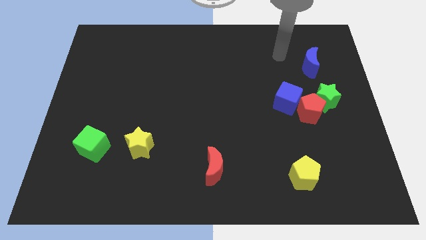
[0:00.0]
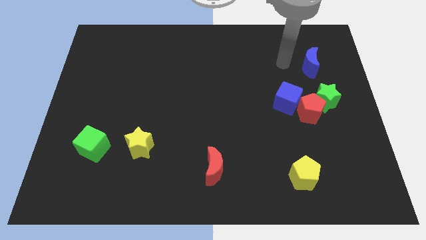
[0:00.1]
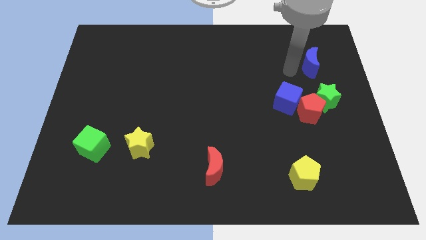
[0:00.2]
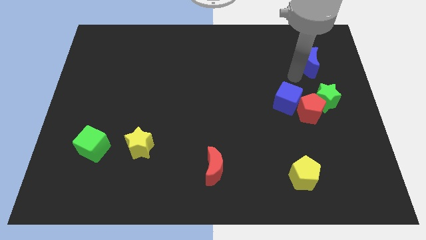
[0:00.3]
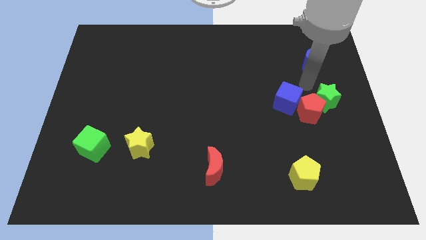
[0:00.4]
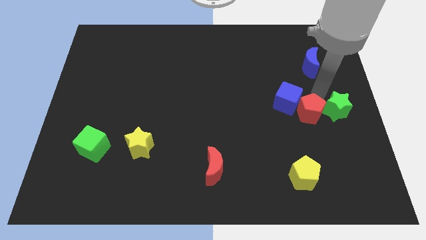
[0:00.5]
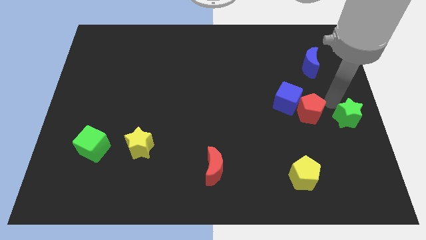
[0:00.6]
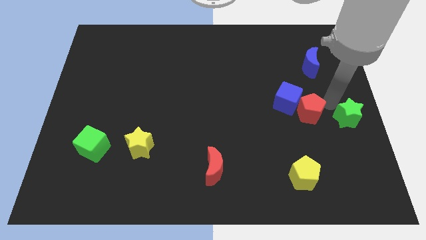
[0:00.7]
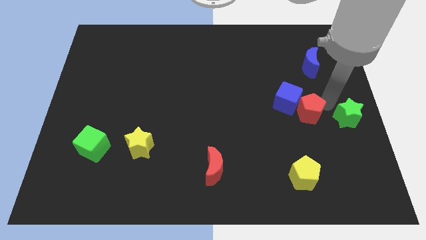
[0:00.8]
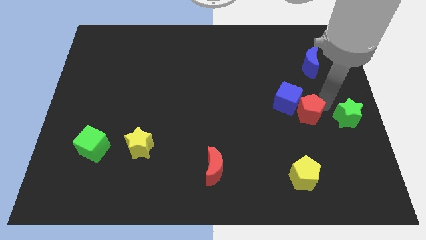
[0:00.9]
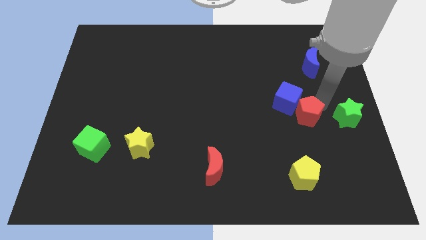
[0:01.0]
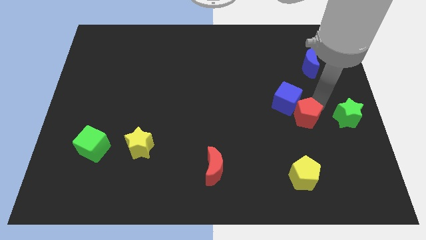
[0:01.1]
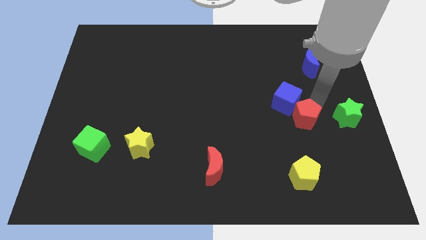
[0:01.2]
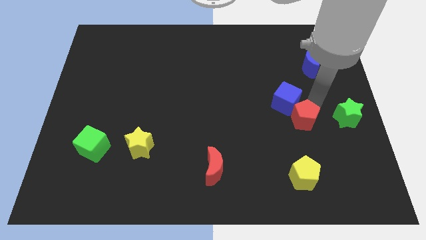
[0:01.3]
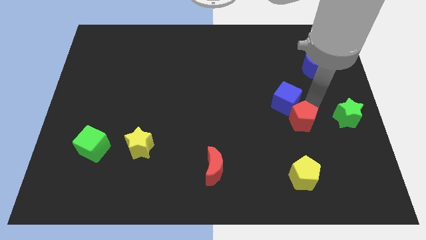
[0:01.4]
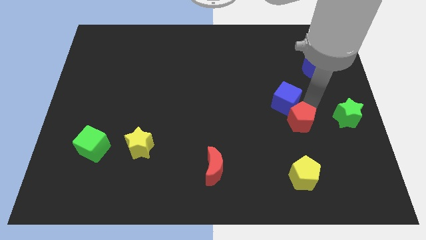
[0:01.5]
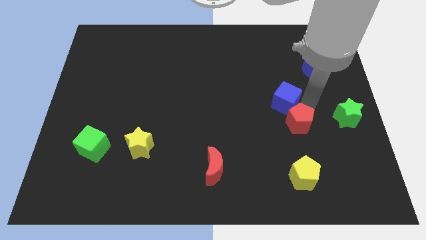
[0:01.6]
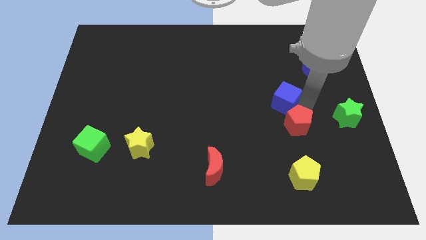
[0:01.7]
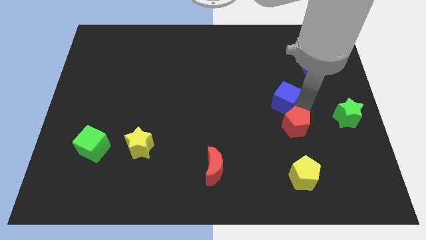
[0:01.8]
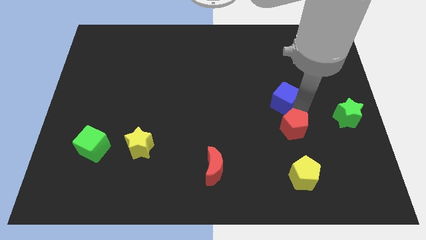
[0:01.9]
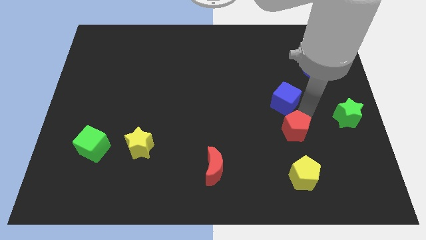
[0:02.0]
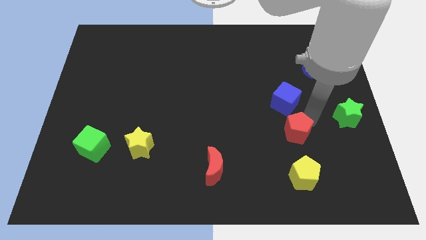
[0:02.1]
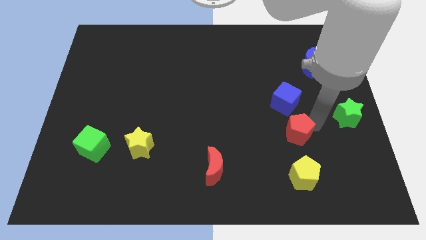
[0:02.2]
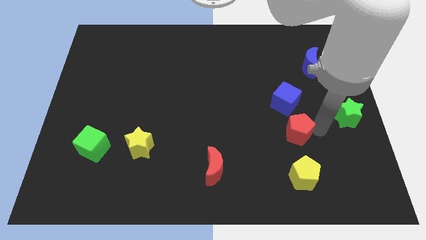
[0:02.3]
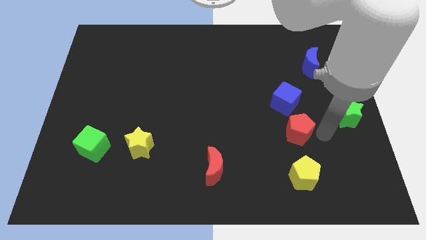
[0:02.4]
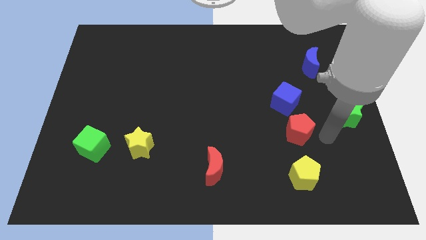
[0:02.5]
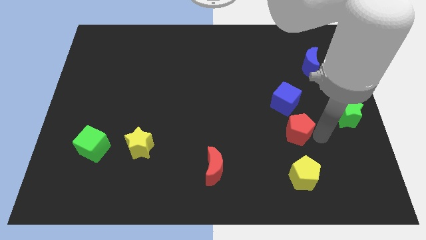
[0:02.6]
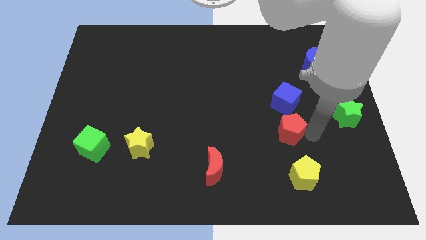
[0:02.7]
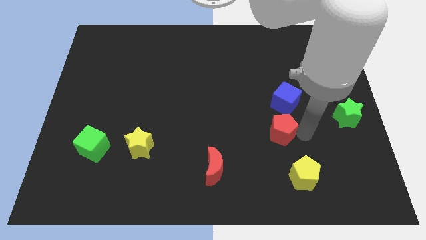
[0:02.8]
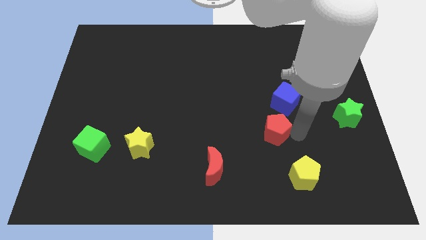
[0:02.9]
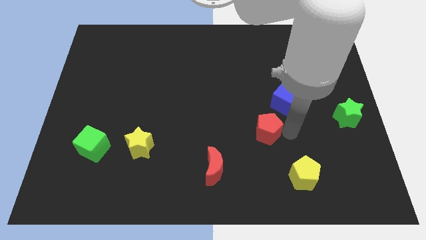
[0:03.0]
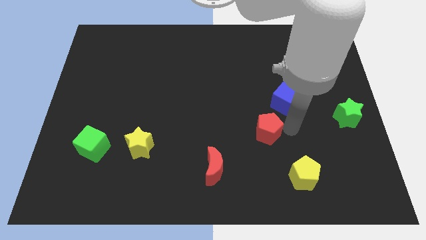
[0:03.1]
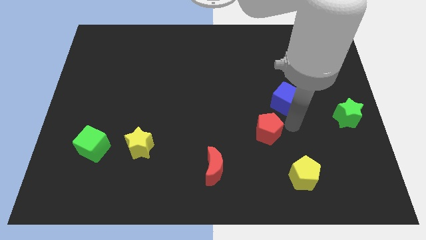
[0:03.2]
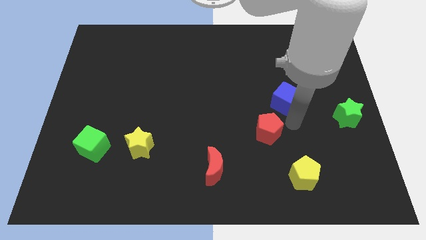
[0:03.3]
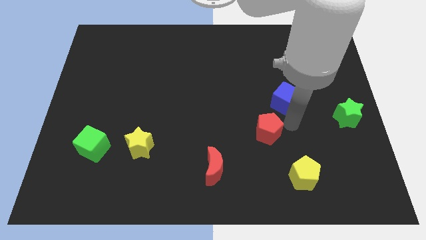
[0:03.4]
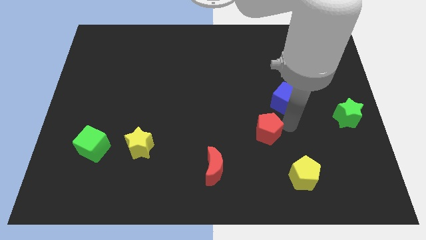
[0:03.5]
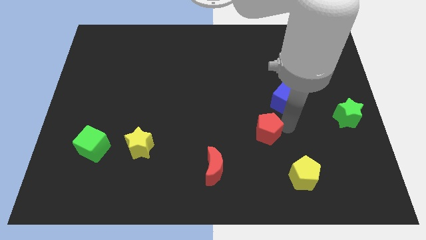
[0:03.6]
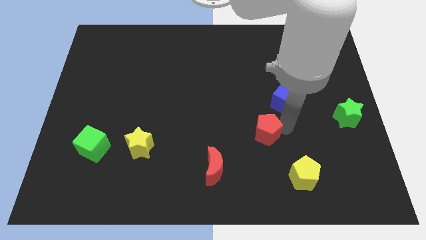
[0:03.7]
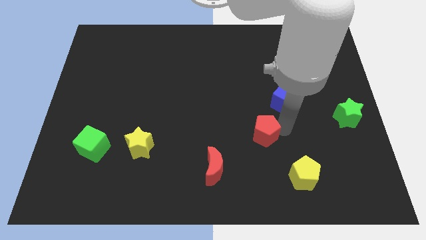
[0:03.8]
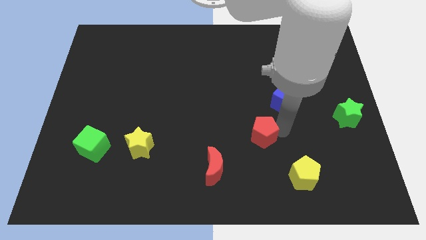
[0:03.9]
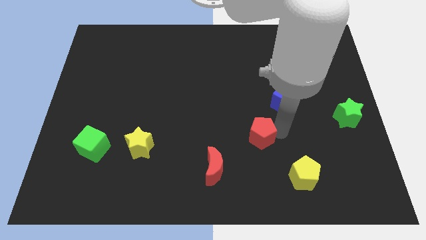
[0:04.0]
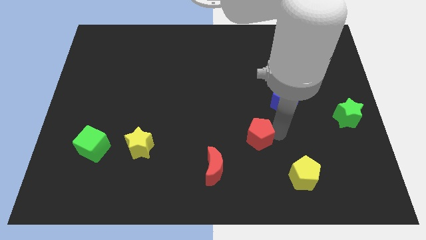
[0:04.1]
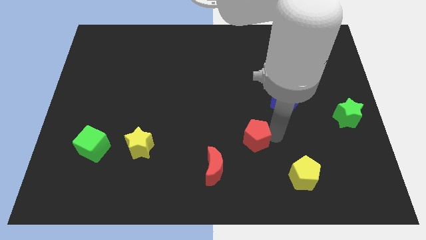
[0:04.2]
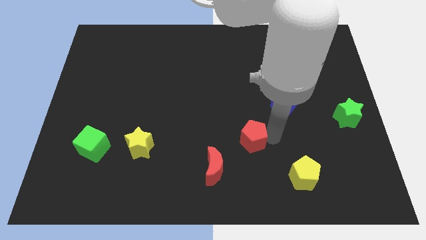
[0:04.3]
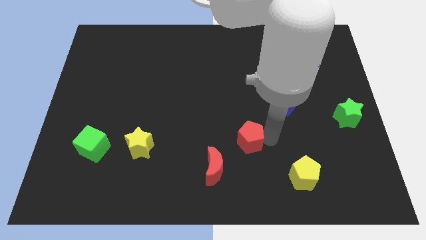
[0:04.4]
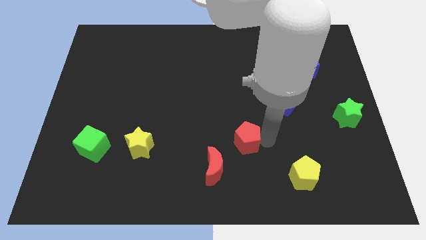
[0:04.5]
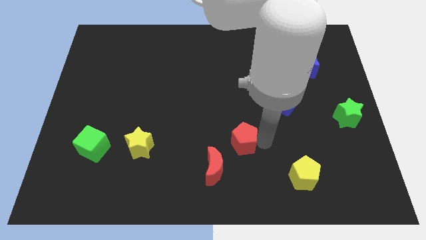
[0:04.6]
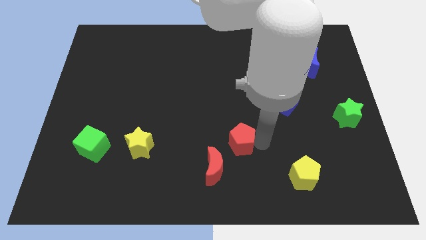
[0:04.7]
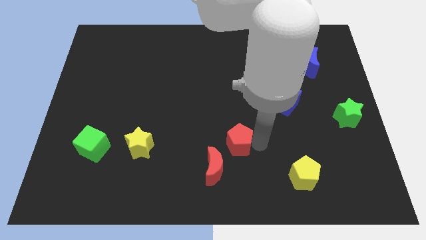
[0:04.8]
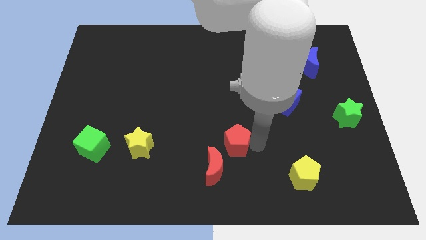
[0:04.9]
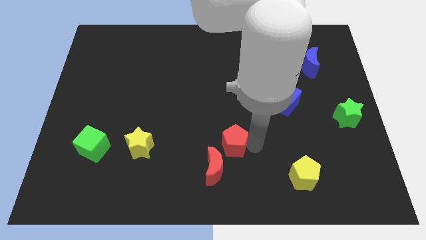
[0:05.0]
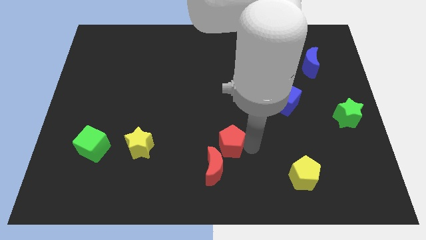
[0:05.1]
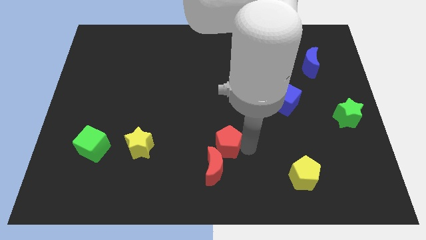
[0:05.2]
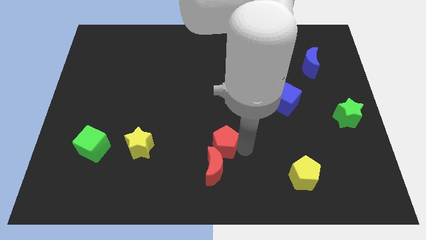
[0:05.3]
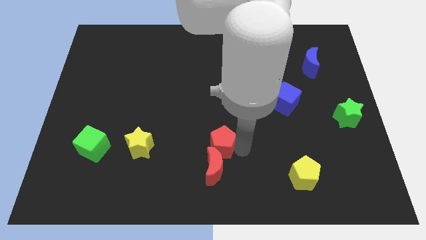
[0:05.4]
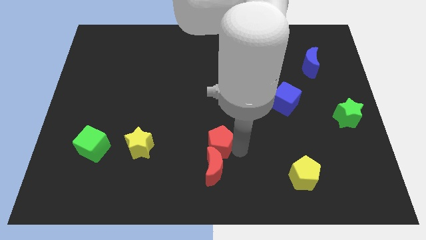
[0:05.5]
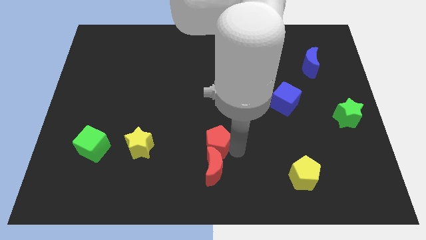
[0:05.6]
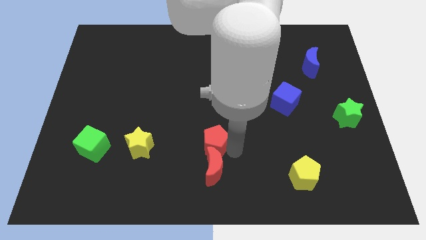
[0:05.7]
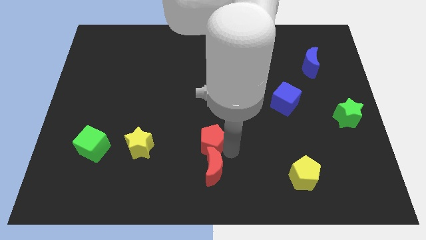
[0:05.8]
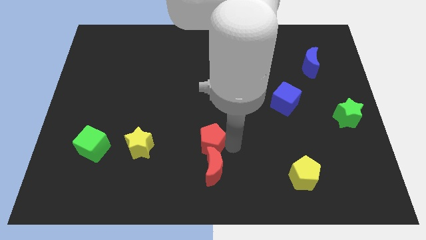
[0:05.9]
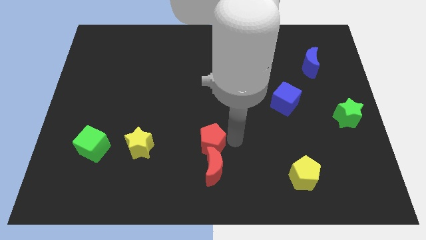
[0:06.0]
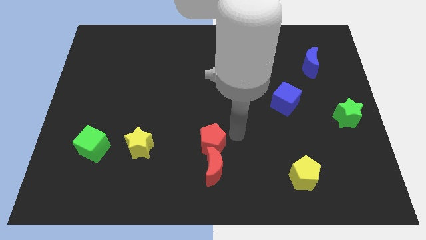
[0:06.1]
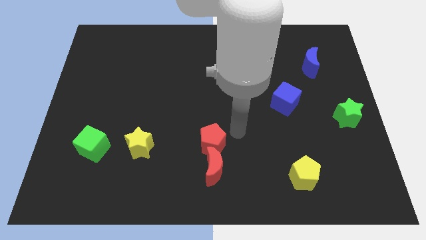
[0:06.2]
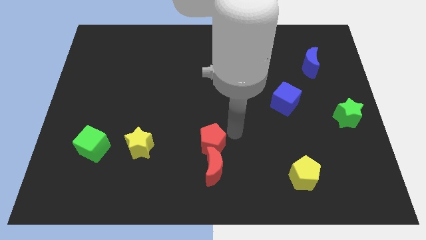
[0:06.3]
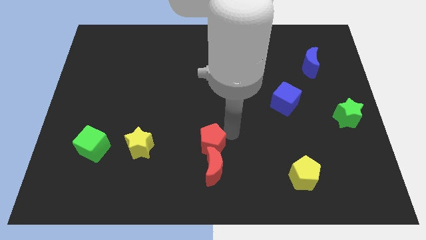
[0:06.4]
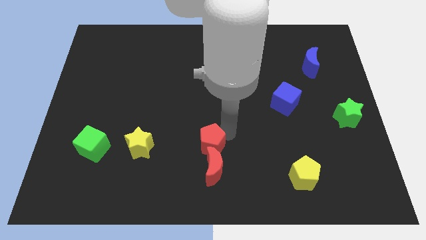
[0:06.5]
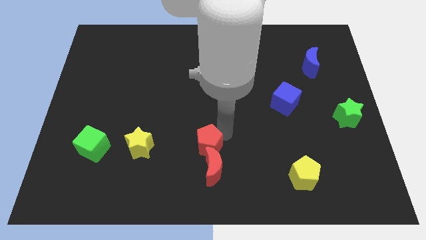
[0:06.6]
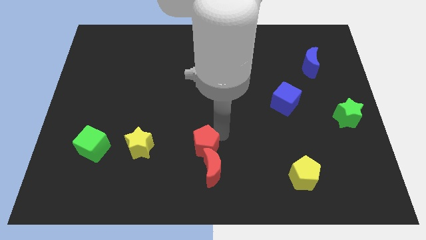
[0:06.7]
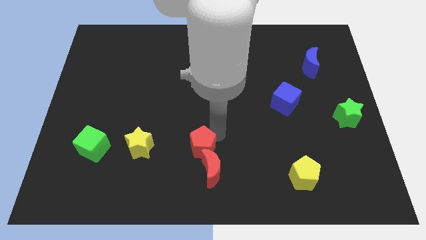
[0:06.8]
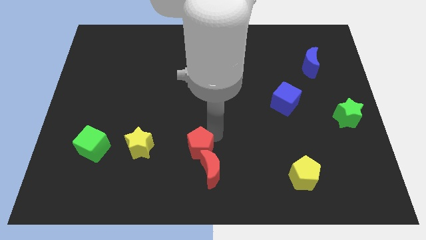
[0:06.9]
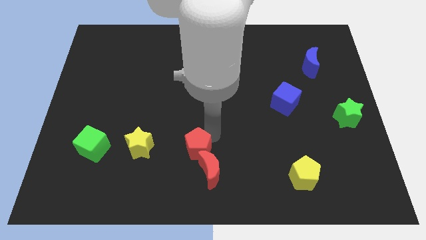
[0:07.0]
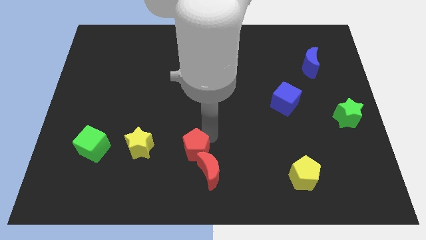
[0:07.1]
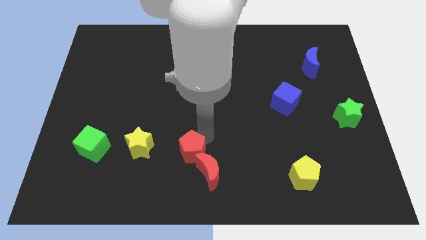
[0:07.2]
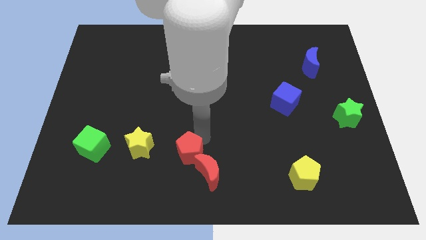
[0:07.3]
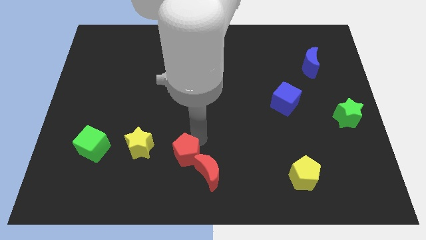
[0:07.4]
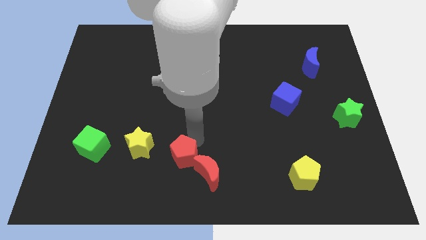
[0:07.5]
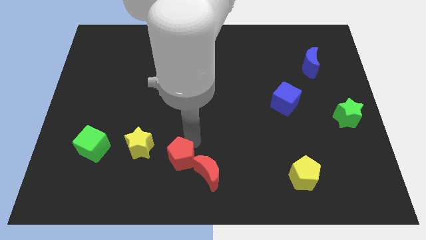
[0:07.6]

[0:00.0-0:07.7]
move the red pentagon to the bottom right of the yellow star

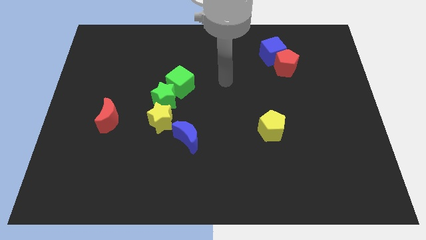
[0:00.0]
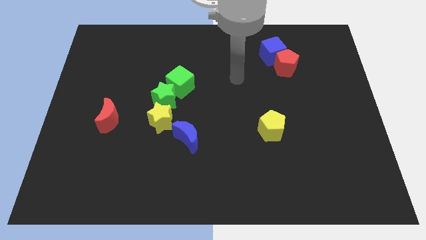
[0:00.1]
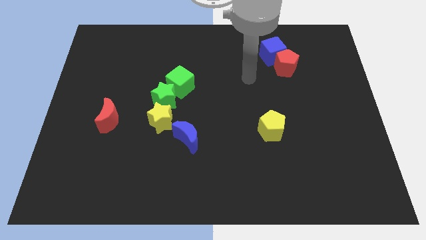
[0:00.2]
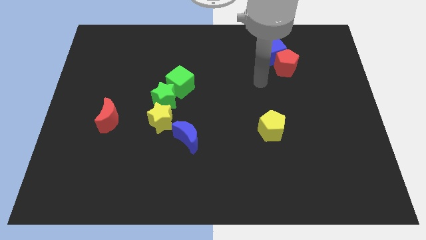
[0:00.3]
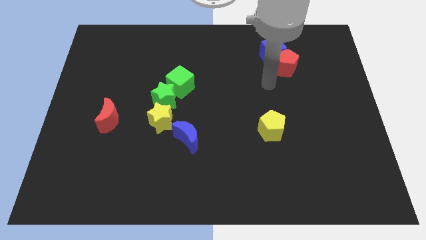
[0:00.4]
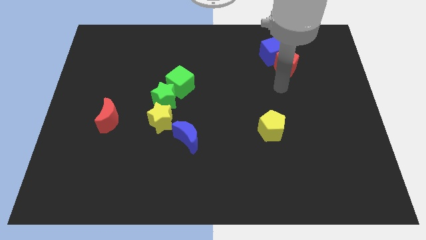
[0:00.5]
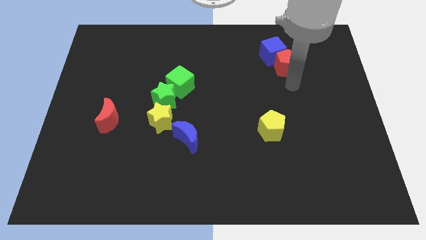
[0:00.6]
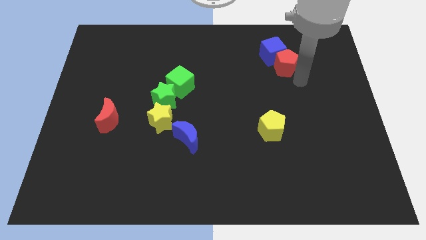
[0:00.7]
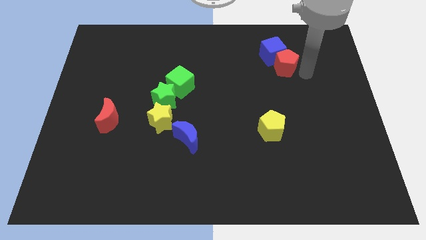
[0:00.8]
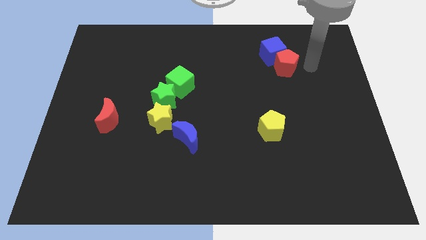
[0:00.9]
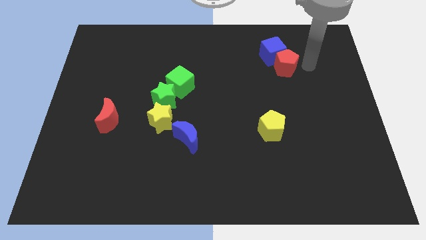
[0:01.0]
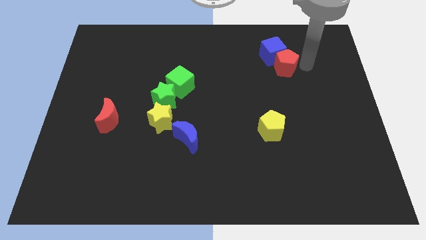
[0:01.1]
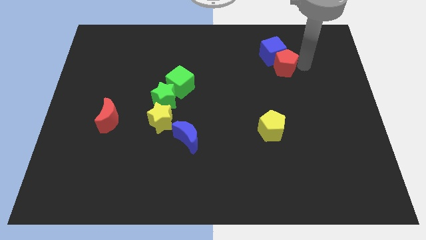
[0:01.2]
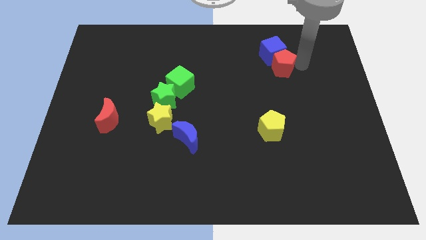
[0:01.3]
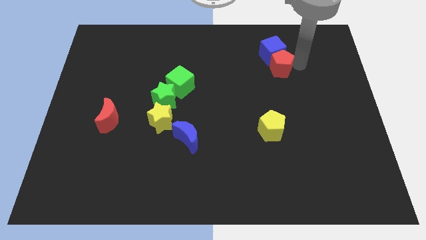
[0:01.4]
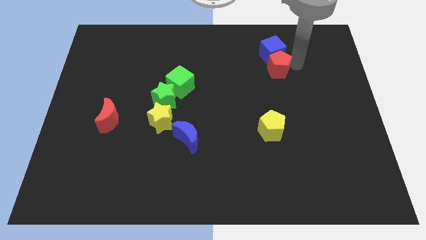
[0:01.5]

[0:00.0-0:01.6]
put the red pentagon diagonally down and to the left of the blue cube
